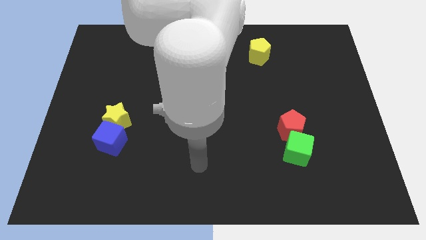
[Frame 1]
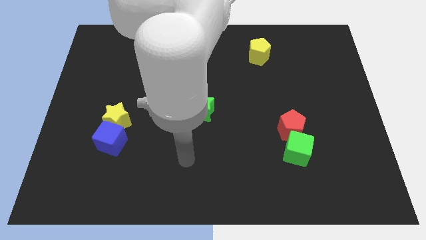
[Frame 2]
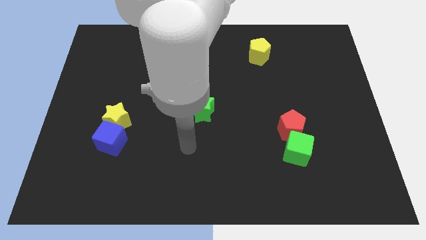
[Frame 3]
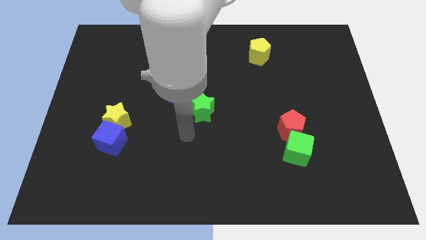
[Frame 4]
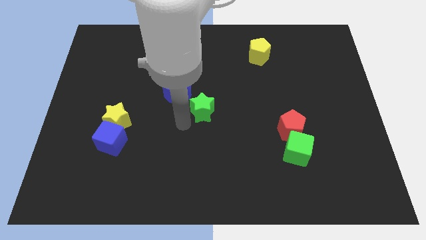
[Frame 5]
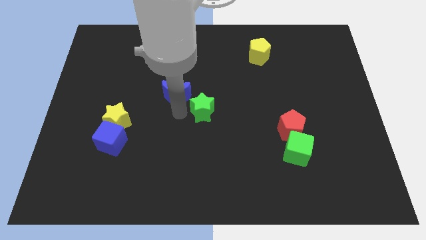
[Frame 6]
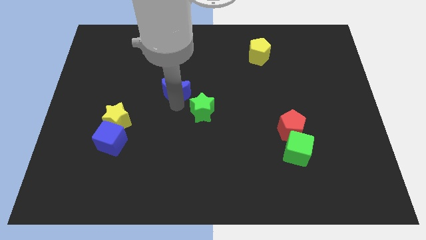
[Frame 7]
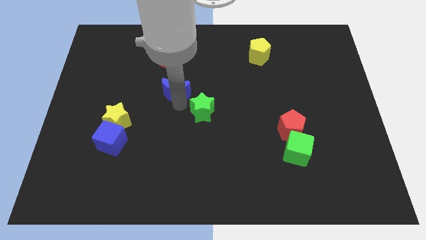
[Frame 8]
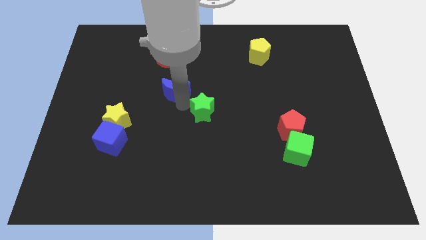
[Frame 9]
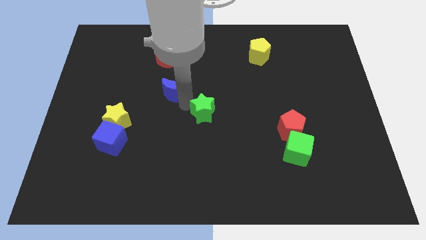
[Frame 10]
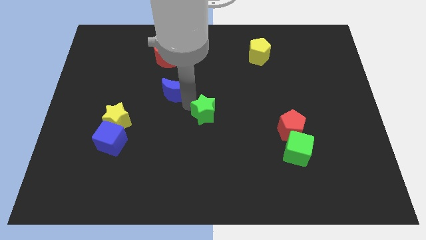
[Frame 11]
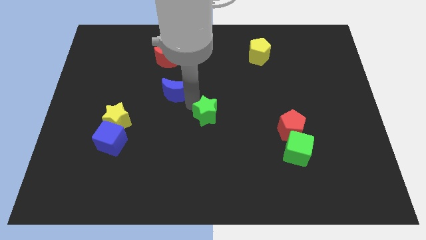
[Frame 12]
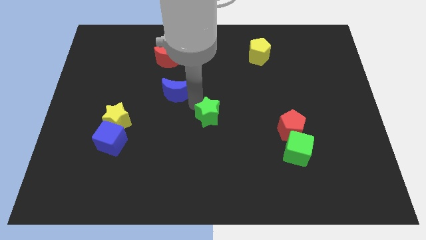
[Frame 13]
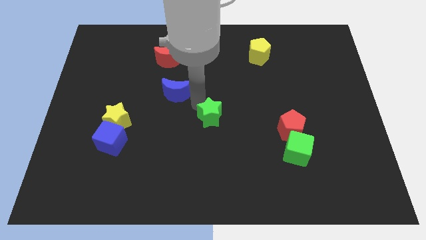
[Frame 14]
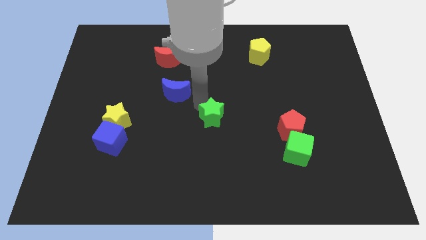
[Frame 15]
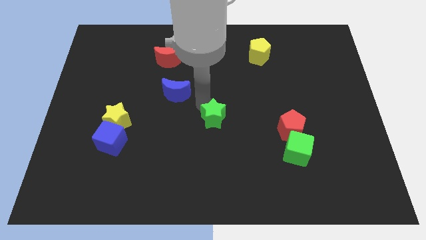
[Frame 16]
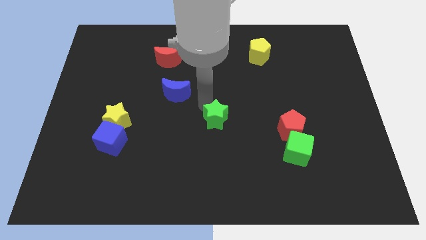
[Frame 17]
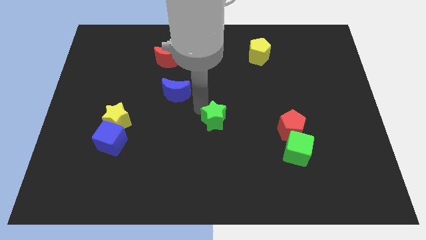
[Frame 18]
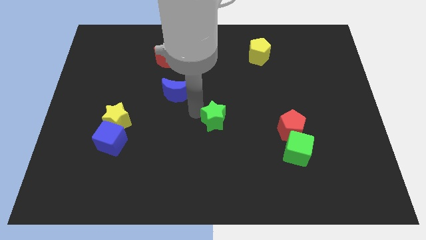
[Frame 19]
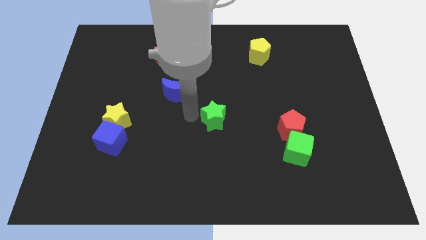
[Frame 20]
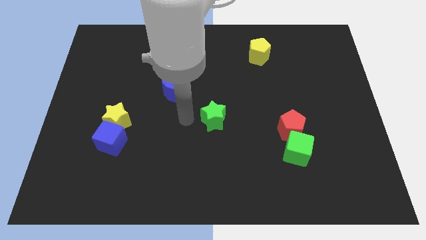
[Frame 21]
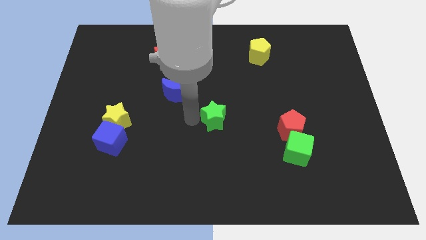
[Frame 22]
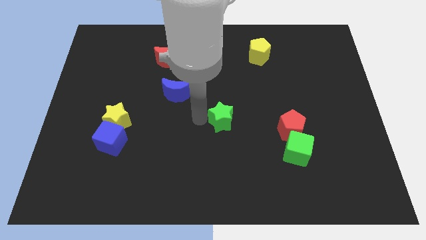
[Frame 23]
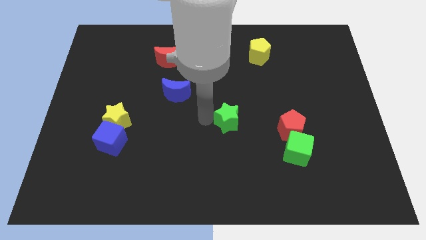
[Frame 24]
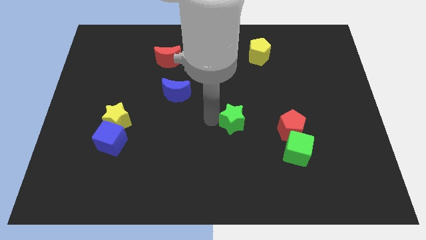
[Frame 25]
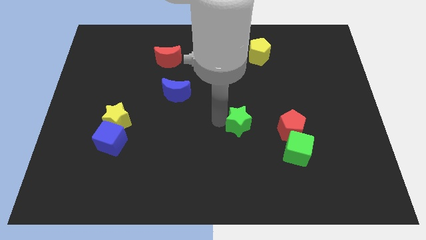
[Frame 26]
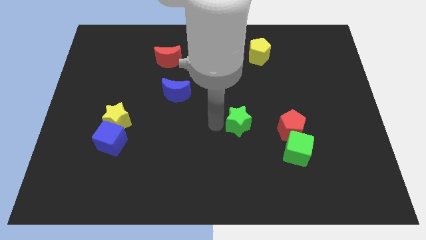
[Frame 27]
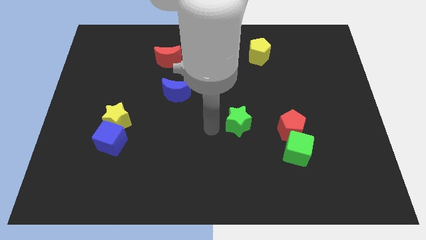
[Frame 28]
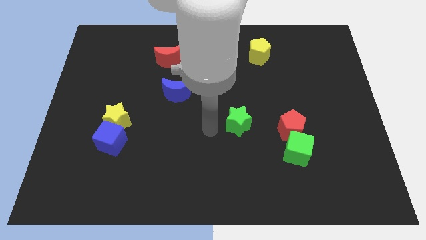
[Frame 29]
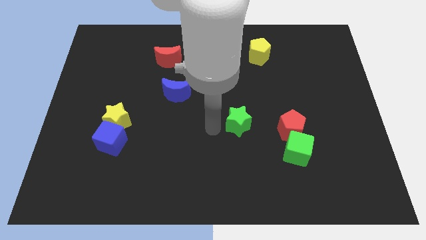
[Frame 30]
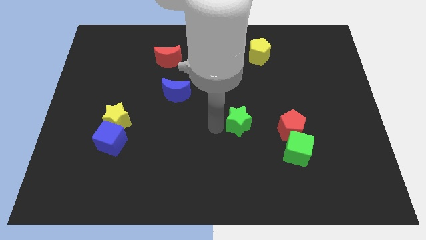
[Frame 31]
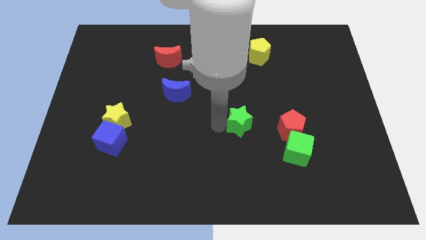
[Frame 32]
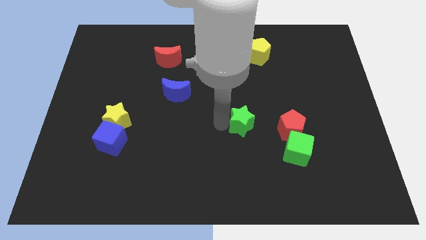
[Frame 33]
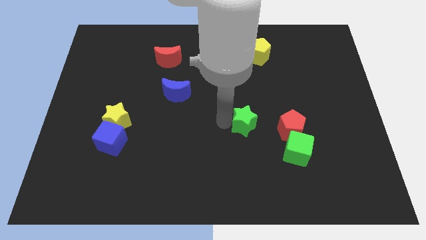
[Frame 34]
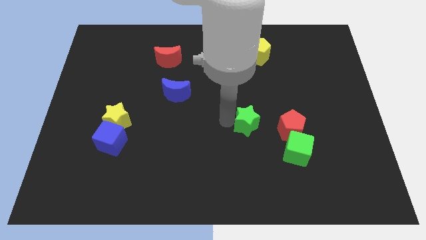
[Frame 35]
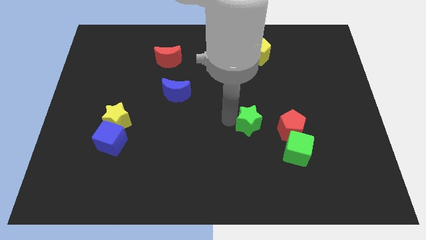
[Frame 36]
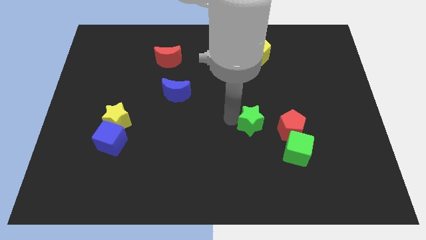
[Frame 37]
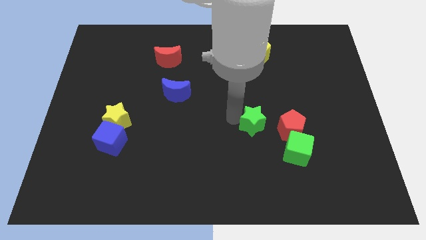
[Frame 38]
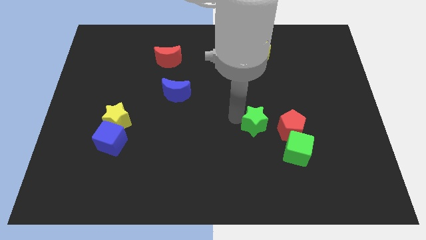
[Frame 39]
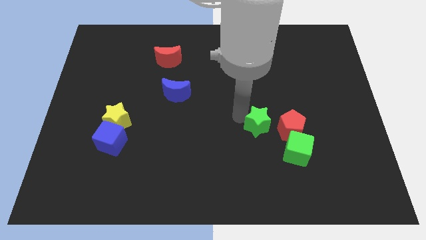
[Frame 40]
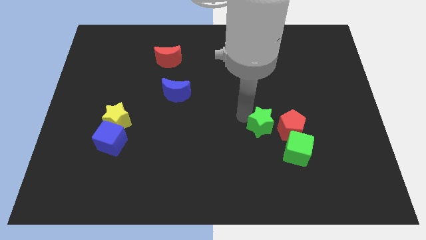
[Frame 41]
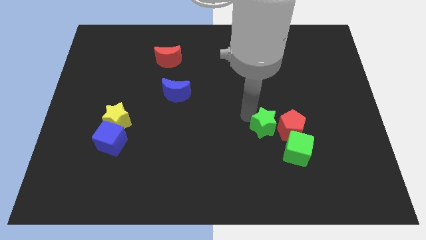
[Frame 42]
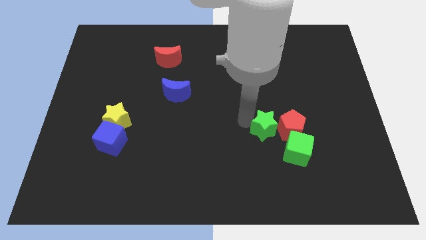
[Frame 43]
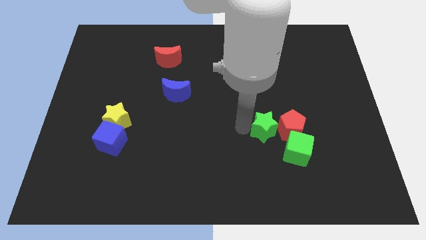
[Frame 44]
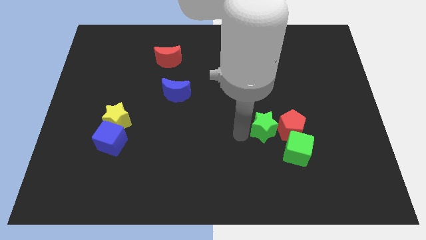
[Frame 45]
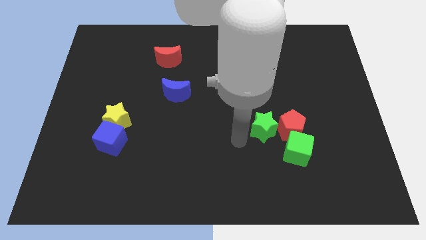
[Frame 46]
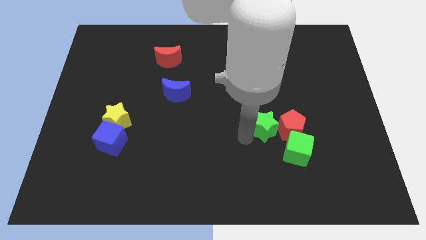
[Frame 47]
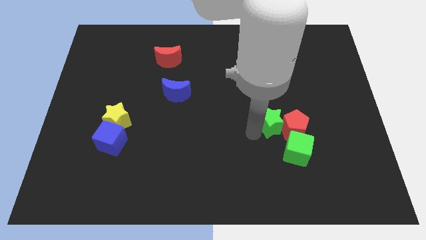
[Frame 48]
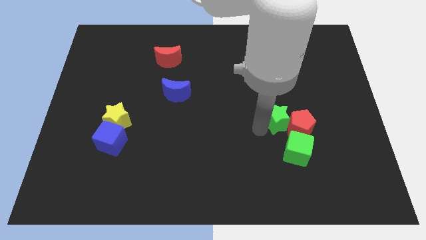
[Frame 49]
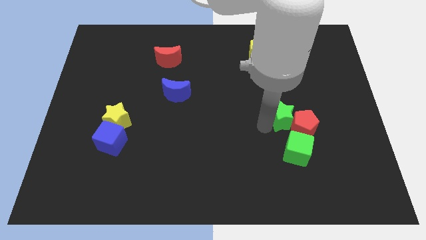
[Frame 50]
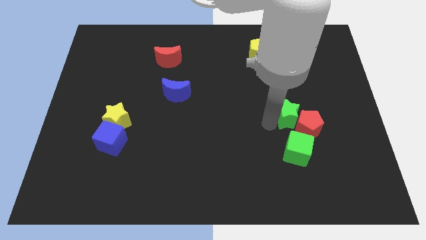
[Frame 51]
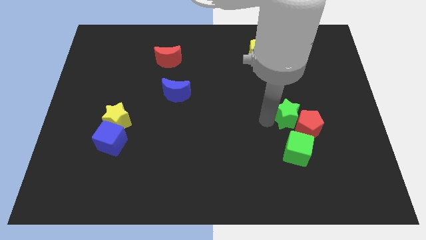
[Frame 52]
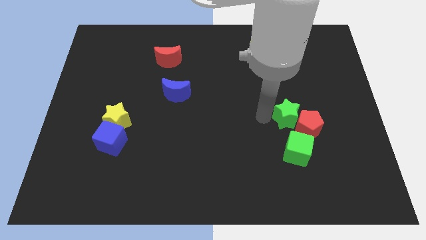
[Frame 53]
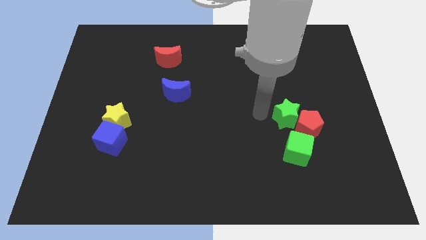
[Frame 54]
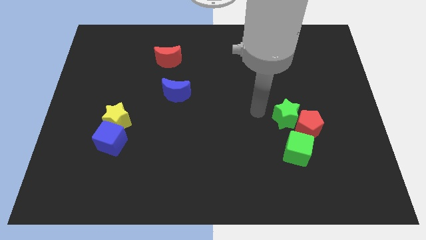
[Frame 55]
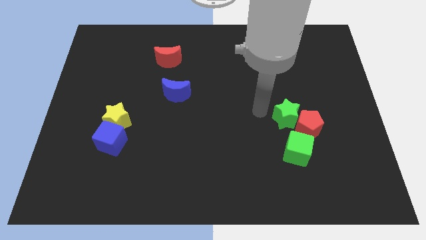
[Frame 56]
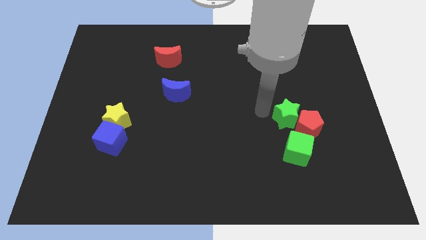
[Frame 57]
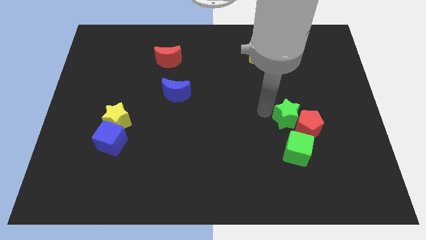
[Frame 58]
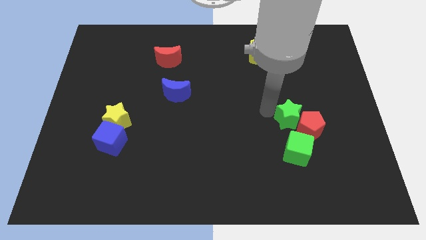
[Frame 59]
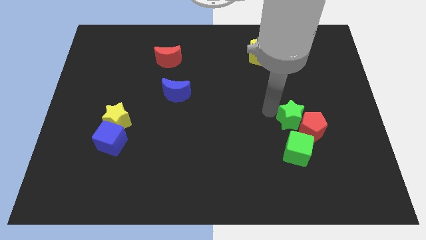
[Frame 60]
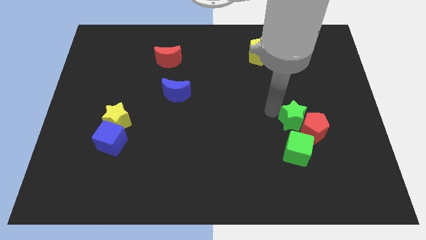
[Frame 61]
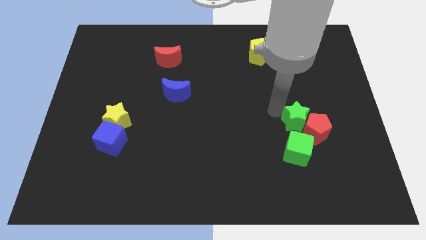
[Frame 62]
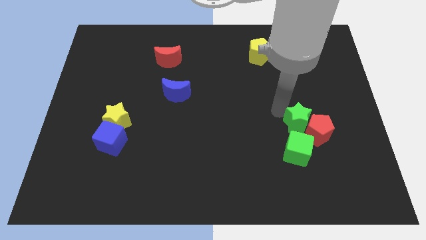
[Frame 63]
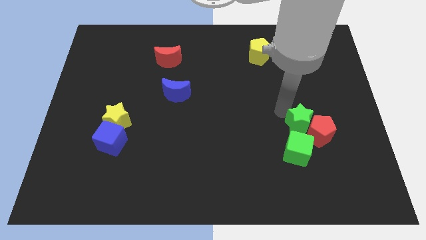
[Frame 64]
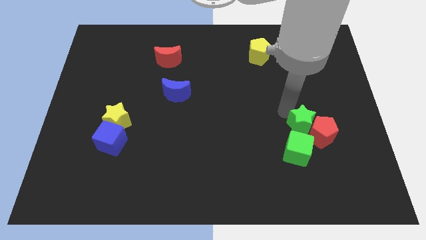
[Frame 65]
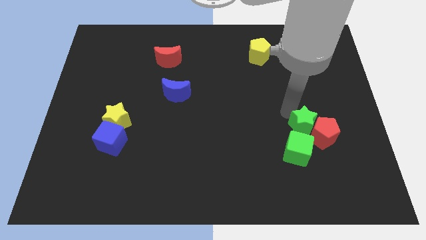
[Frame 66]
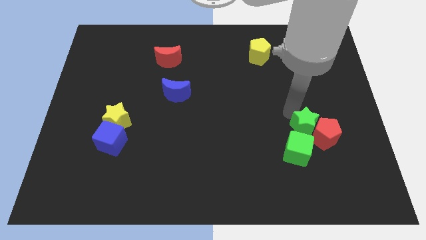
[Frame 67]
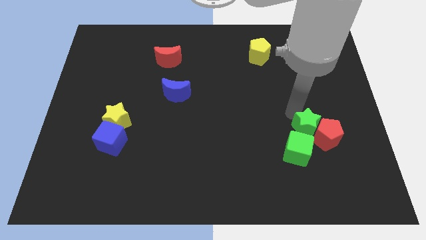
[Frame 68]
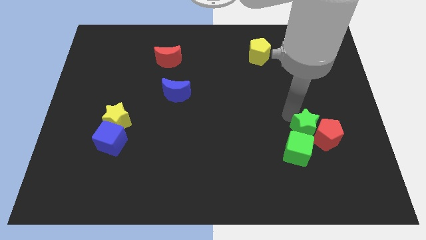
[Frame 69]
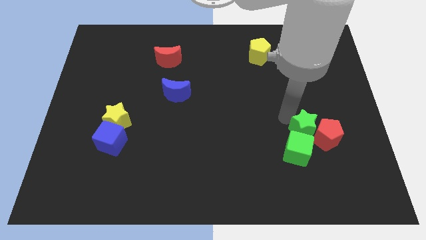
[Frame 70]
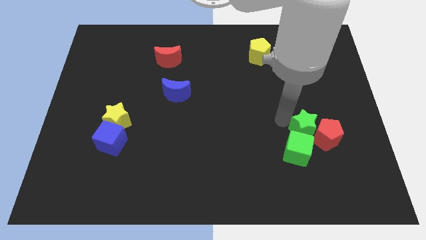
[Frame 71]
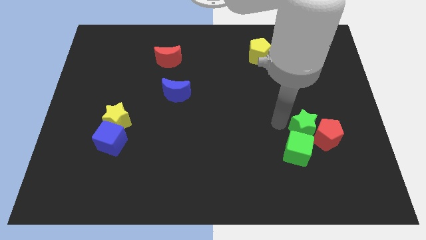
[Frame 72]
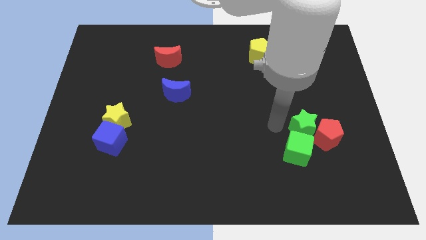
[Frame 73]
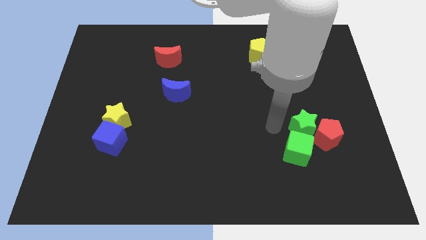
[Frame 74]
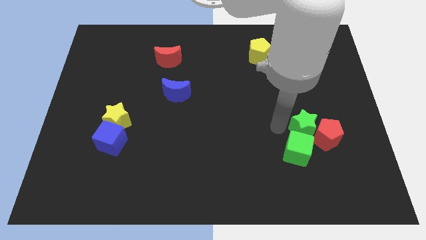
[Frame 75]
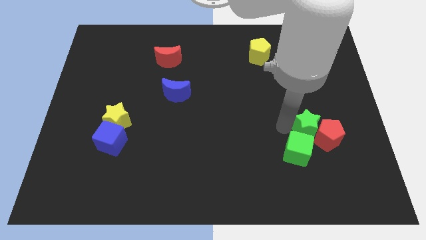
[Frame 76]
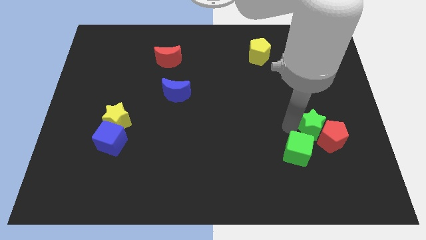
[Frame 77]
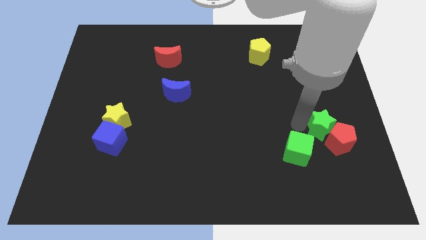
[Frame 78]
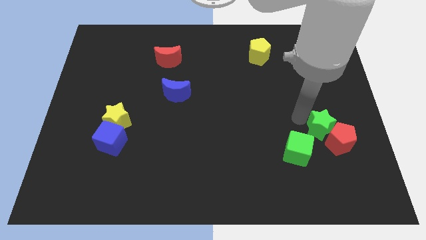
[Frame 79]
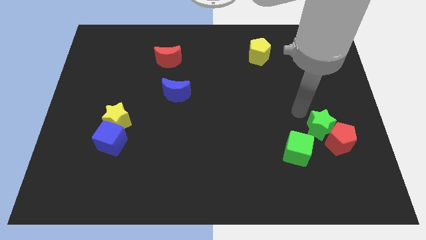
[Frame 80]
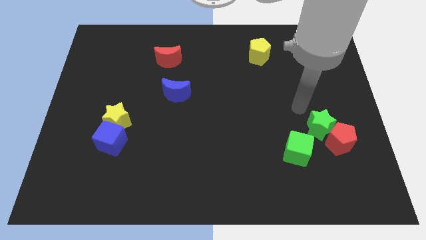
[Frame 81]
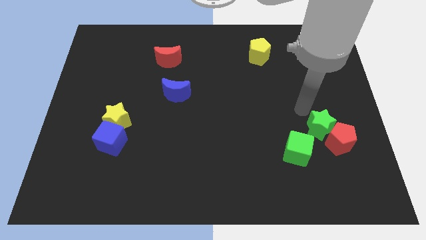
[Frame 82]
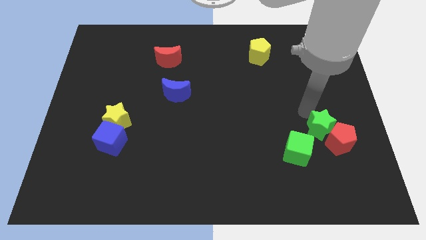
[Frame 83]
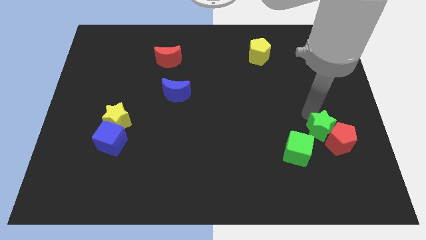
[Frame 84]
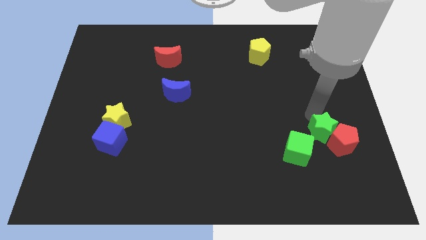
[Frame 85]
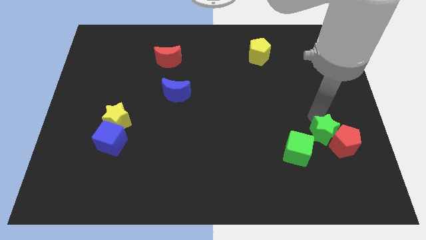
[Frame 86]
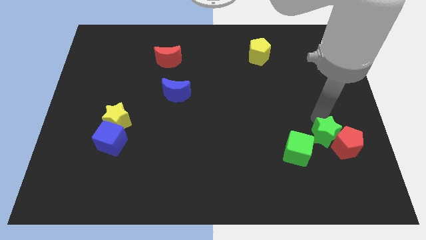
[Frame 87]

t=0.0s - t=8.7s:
put the green star to the right side of the green cube
